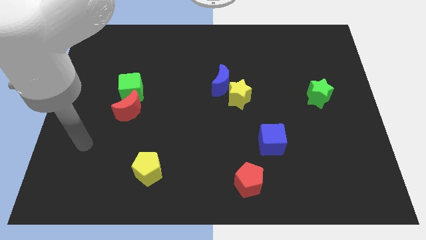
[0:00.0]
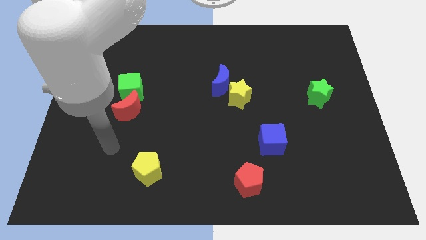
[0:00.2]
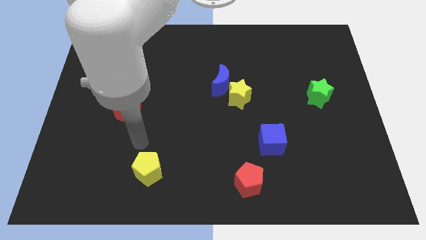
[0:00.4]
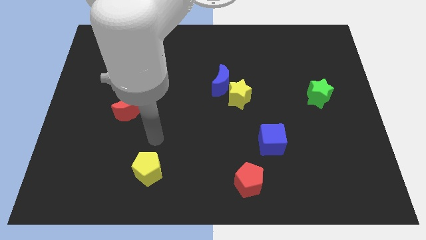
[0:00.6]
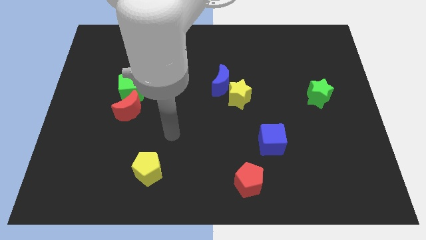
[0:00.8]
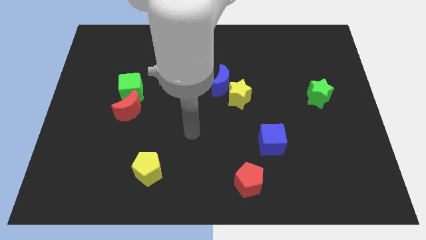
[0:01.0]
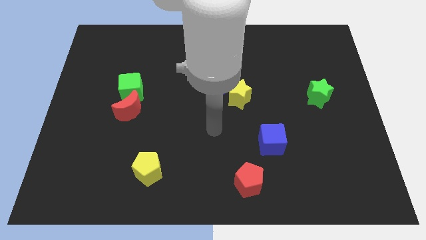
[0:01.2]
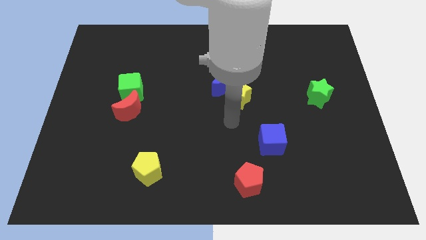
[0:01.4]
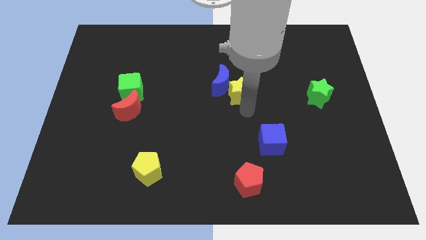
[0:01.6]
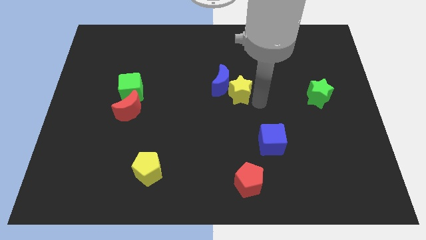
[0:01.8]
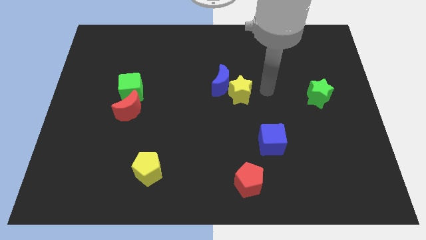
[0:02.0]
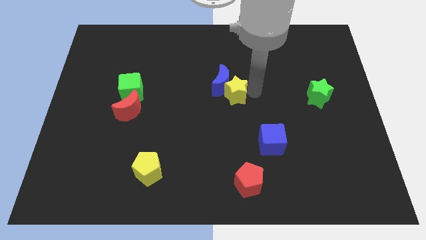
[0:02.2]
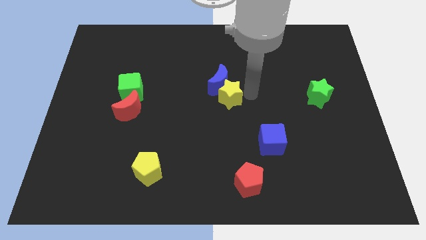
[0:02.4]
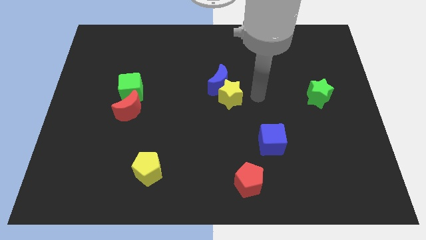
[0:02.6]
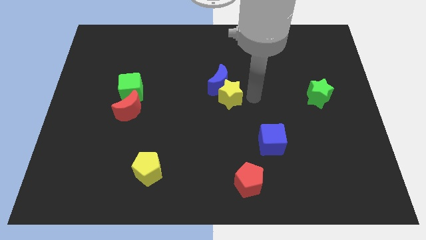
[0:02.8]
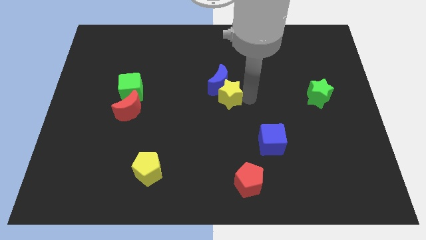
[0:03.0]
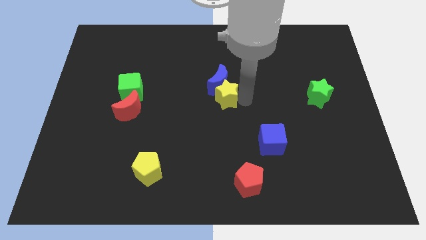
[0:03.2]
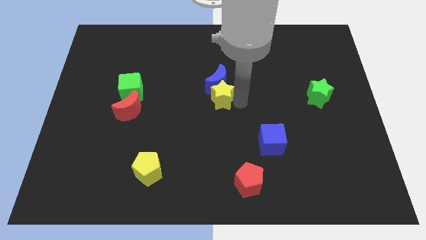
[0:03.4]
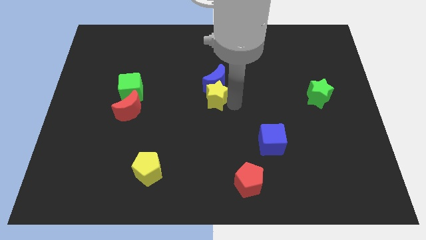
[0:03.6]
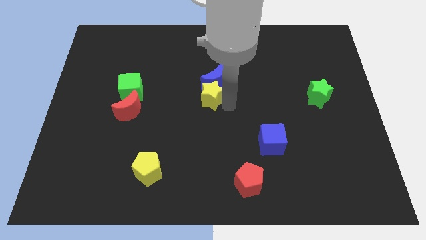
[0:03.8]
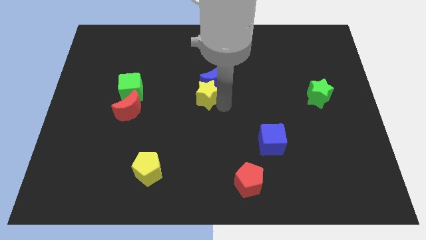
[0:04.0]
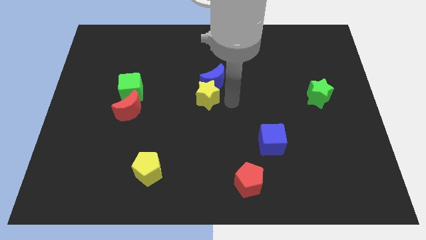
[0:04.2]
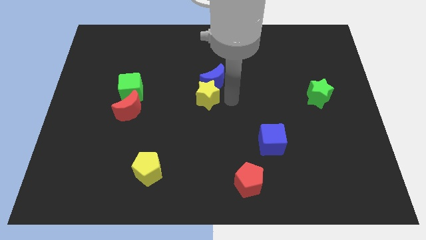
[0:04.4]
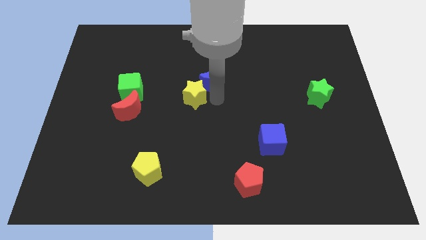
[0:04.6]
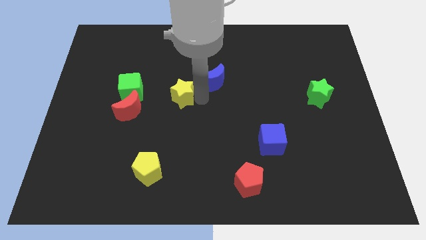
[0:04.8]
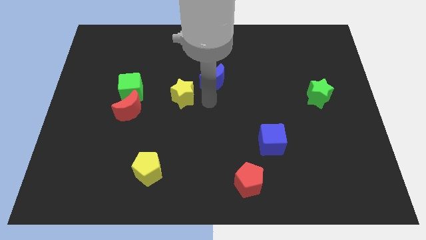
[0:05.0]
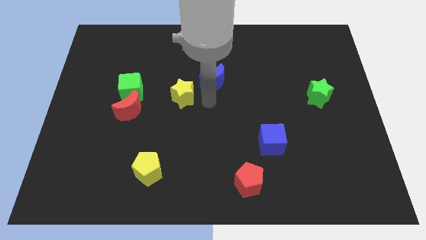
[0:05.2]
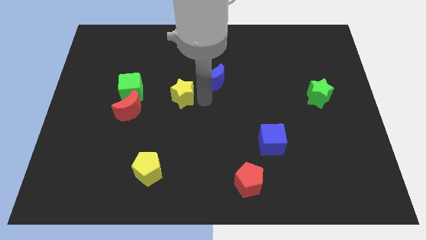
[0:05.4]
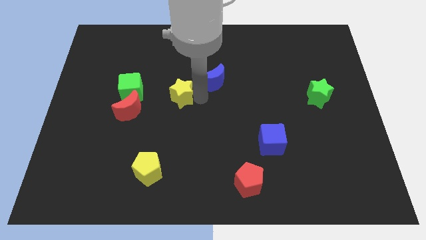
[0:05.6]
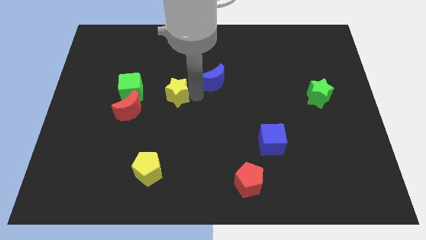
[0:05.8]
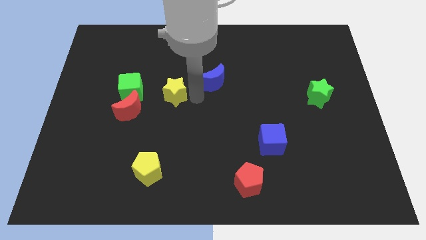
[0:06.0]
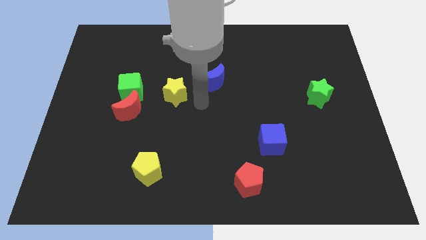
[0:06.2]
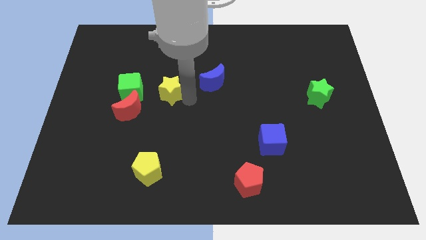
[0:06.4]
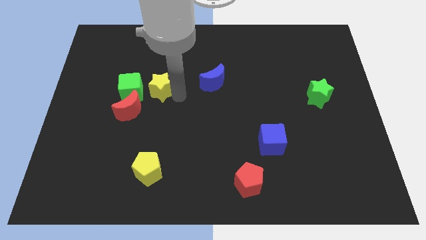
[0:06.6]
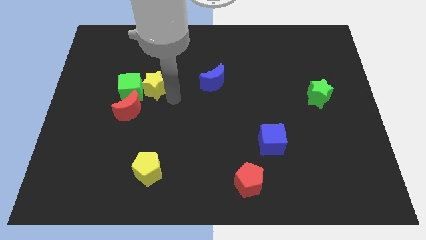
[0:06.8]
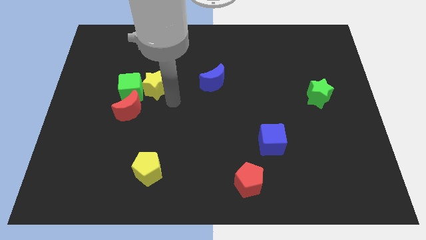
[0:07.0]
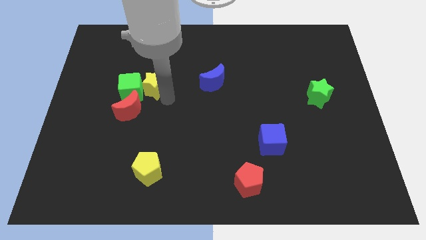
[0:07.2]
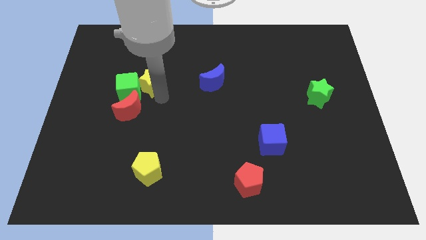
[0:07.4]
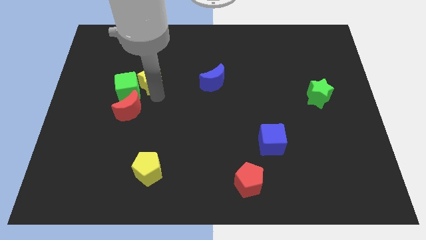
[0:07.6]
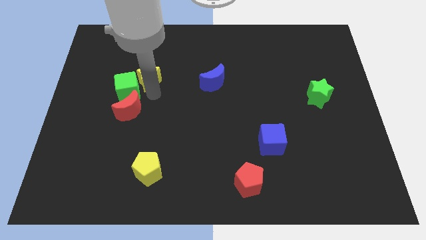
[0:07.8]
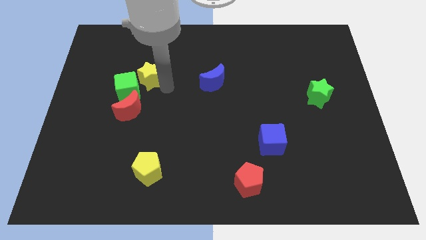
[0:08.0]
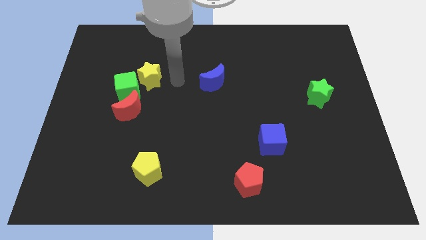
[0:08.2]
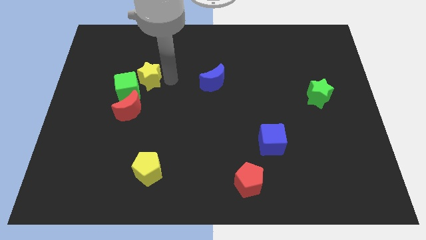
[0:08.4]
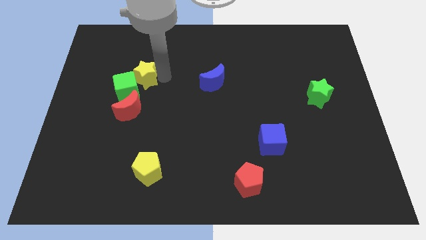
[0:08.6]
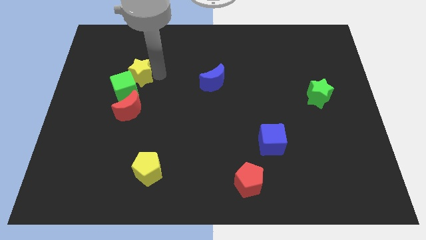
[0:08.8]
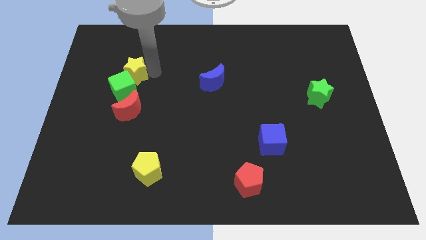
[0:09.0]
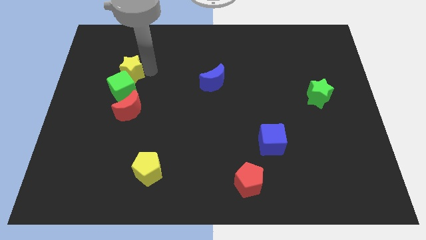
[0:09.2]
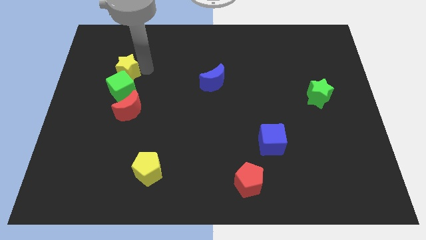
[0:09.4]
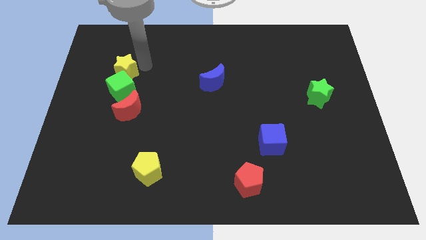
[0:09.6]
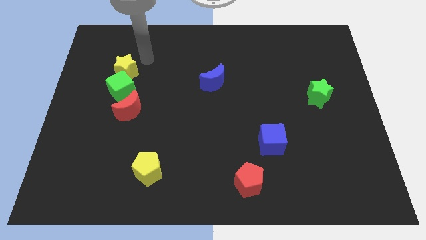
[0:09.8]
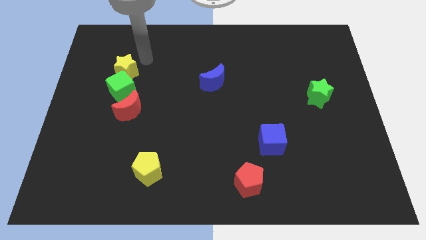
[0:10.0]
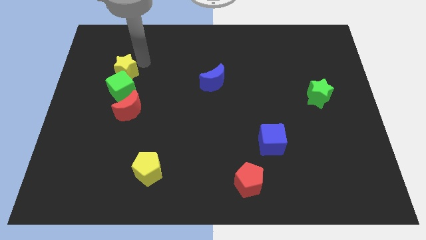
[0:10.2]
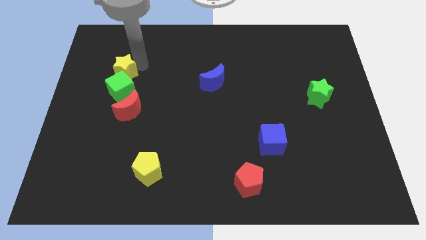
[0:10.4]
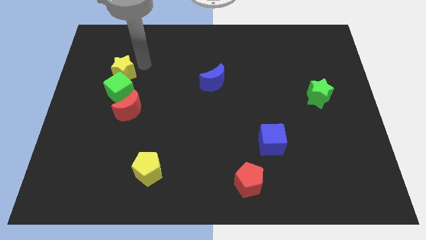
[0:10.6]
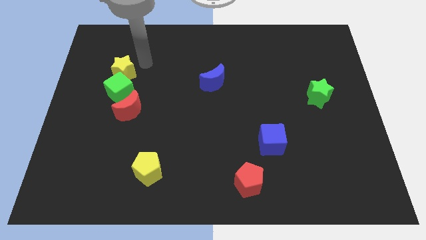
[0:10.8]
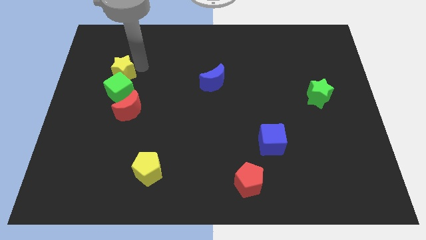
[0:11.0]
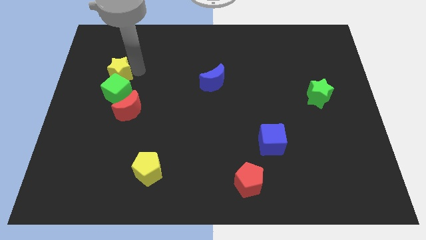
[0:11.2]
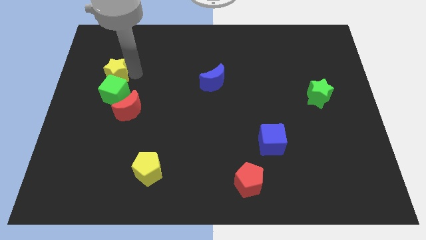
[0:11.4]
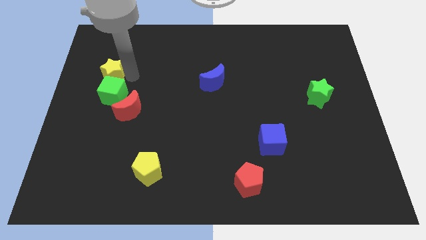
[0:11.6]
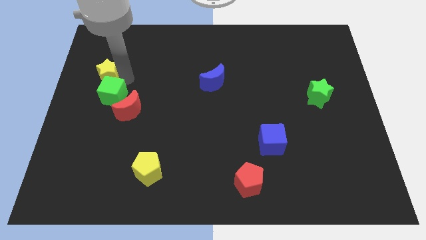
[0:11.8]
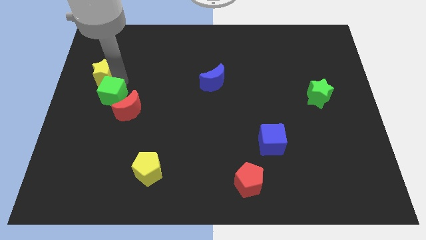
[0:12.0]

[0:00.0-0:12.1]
put the yellow star to the left side of the board

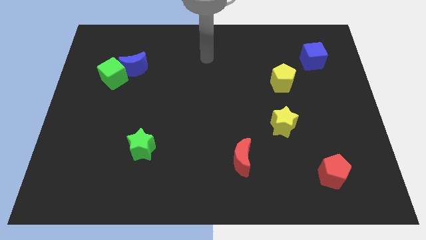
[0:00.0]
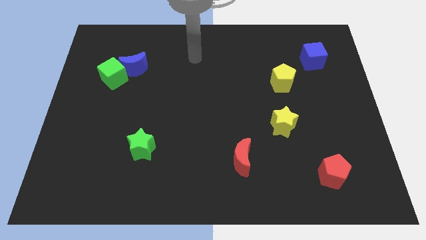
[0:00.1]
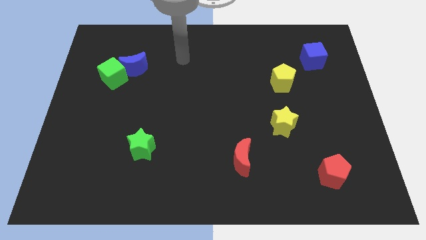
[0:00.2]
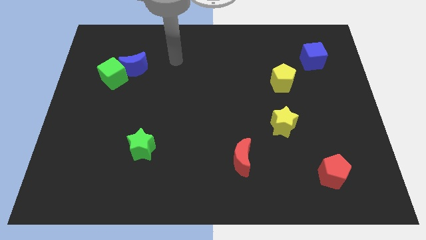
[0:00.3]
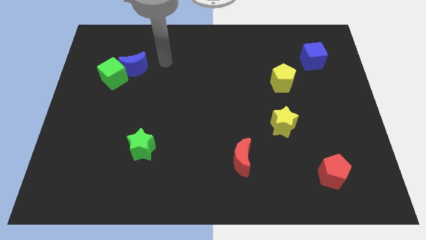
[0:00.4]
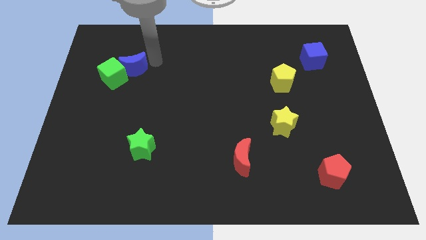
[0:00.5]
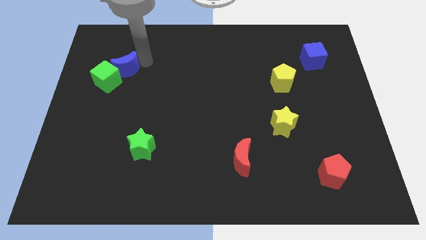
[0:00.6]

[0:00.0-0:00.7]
push the green cube to the center left
